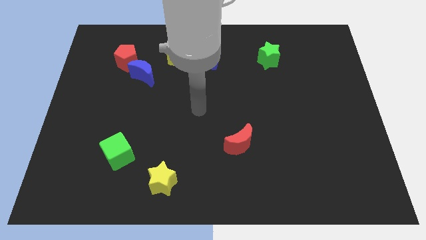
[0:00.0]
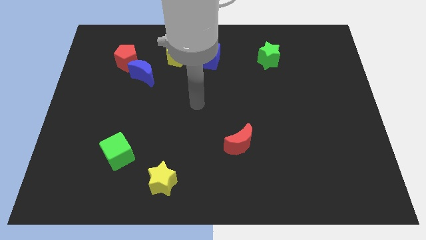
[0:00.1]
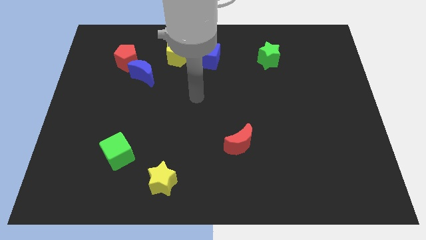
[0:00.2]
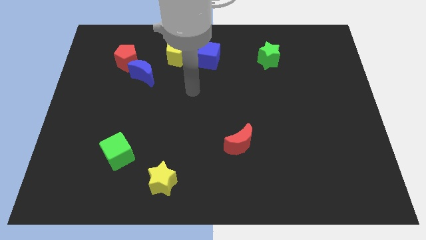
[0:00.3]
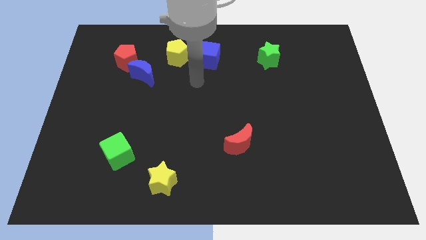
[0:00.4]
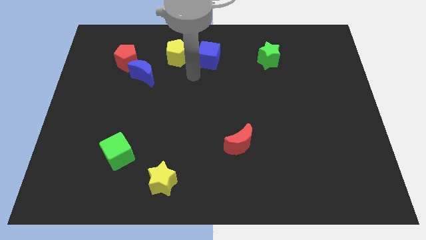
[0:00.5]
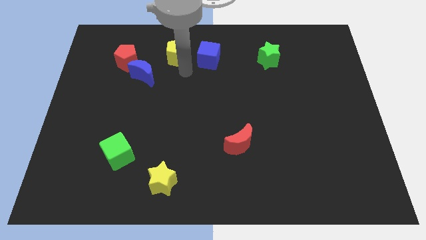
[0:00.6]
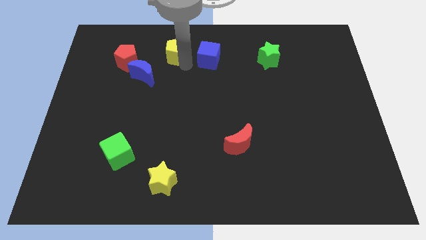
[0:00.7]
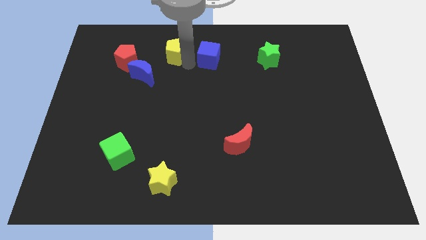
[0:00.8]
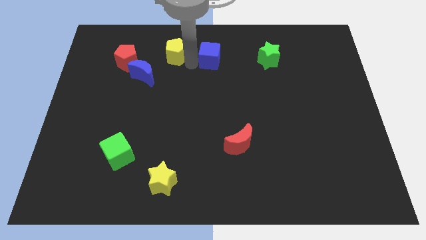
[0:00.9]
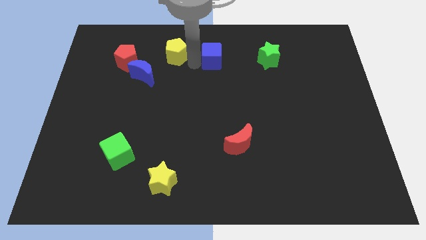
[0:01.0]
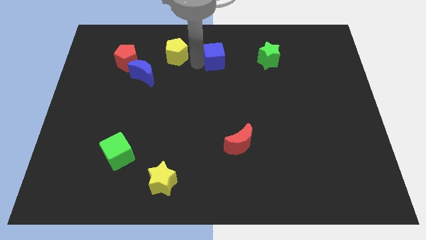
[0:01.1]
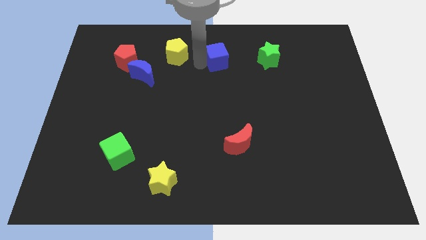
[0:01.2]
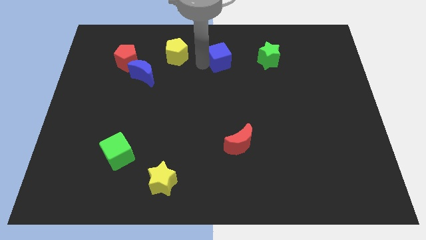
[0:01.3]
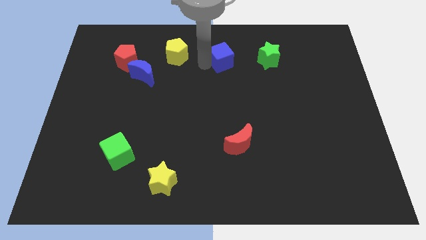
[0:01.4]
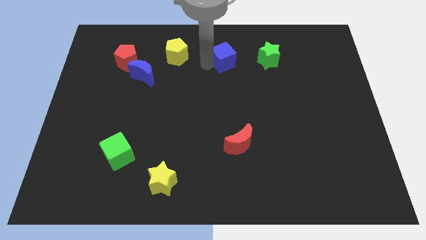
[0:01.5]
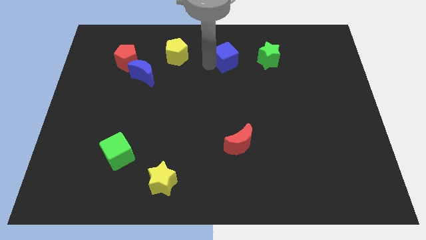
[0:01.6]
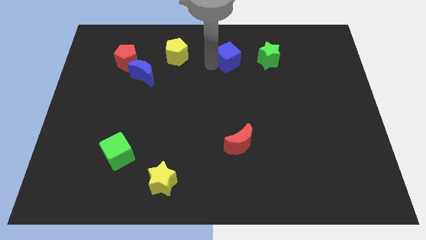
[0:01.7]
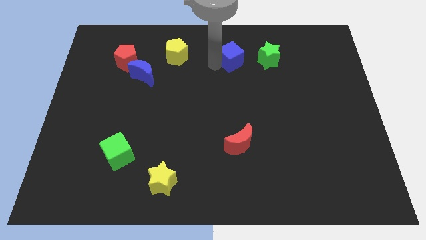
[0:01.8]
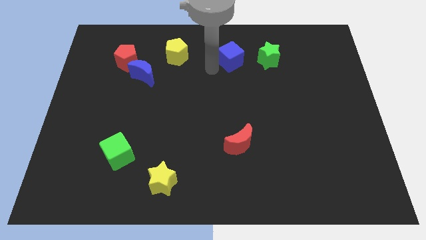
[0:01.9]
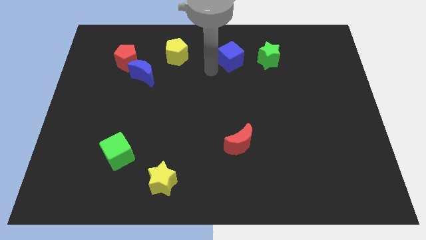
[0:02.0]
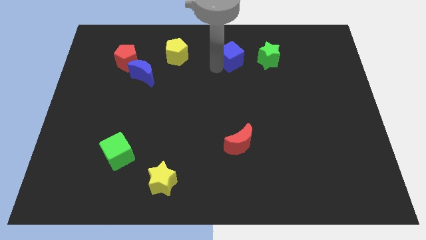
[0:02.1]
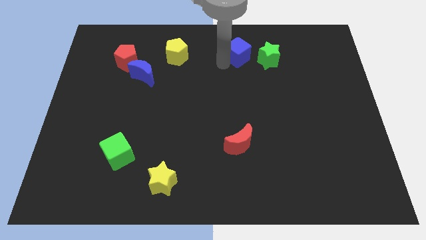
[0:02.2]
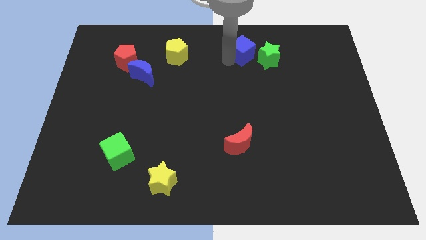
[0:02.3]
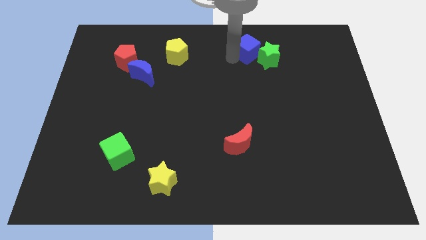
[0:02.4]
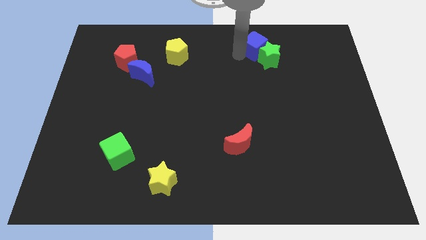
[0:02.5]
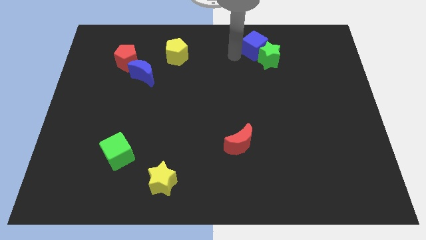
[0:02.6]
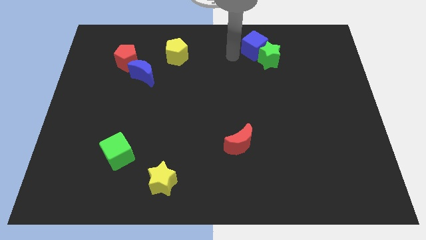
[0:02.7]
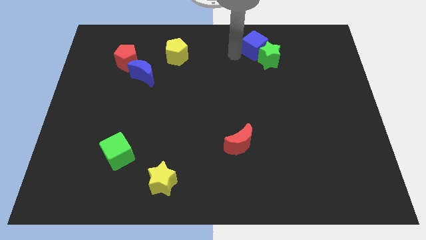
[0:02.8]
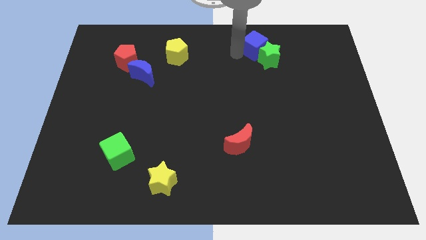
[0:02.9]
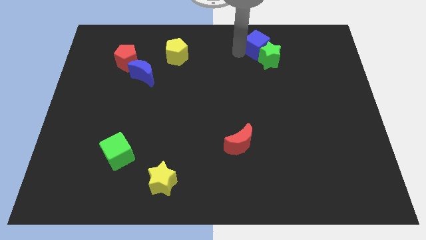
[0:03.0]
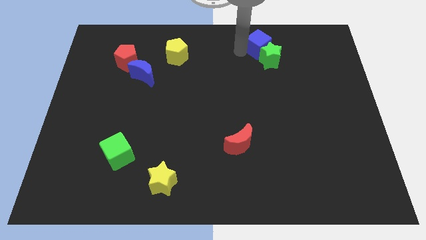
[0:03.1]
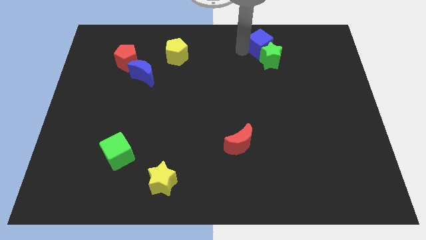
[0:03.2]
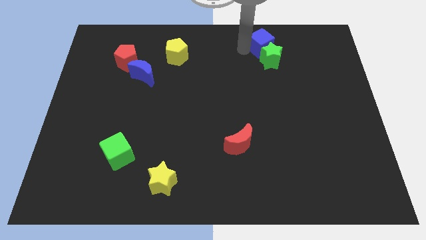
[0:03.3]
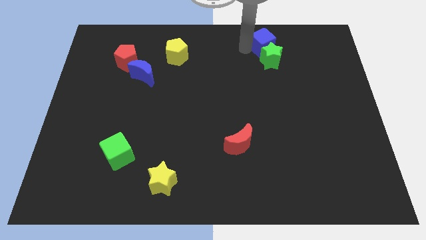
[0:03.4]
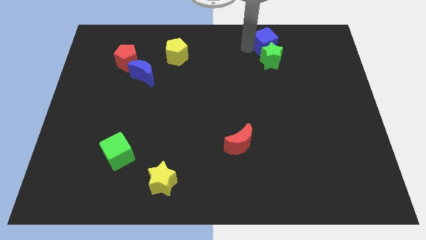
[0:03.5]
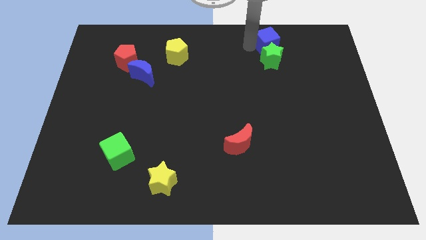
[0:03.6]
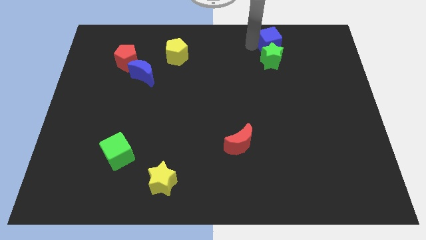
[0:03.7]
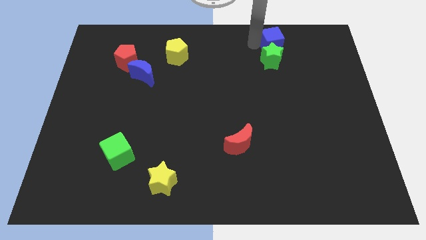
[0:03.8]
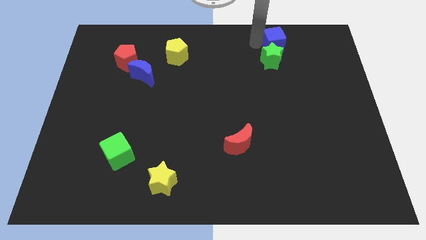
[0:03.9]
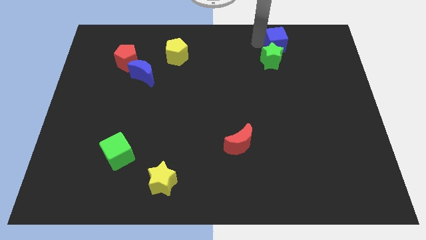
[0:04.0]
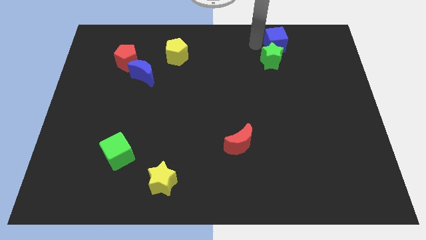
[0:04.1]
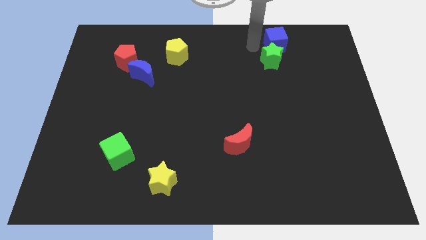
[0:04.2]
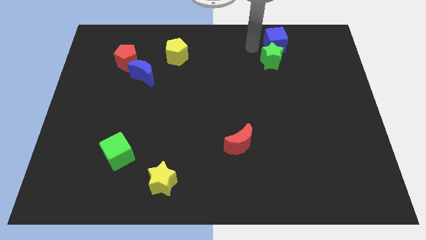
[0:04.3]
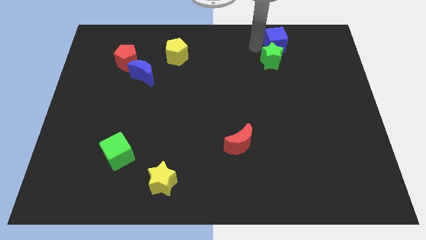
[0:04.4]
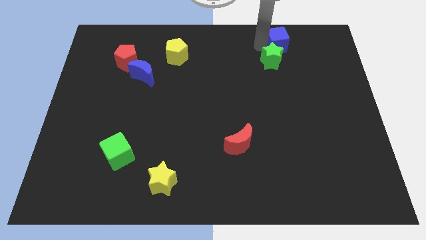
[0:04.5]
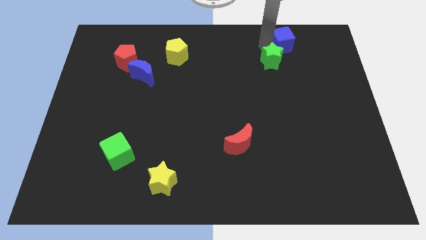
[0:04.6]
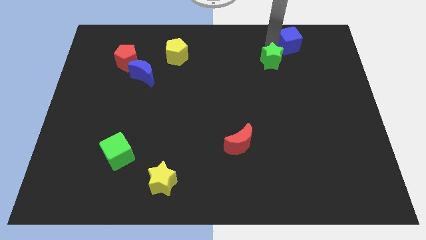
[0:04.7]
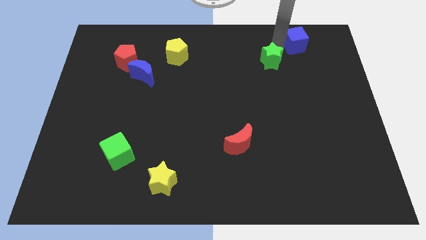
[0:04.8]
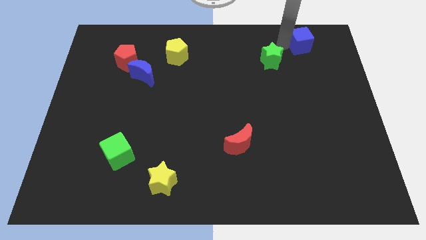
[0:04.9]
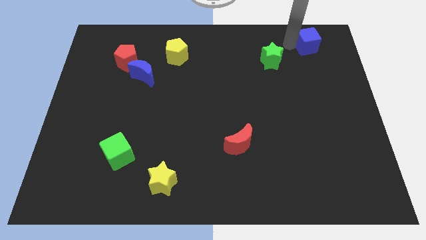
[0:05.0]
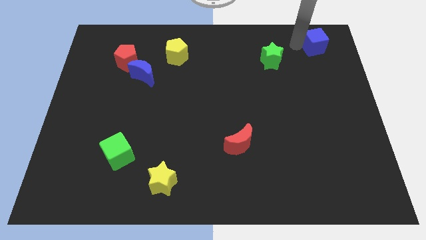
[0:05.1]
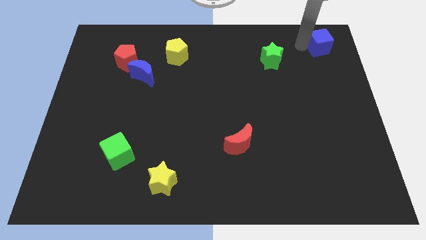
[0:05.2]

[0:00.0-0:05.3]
put the blue cube to the top right

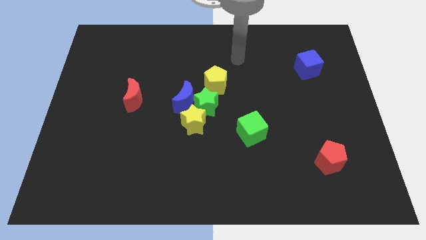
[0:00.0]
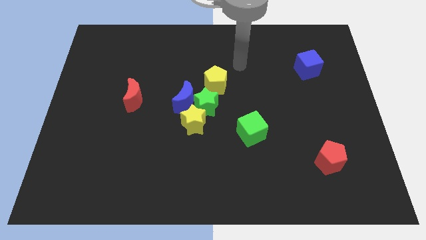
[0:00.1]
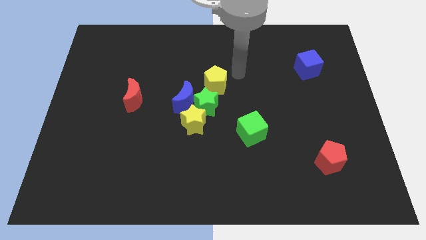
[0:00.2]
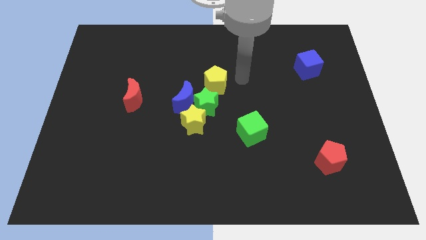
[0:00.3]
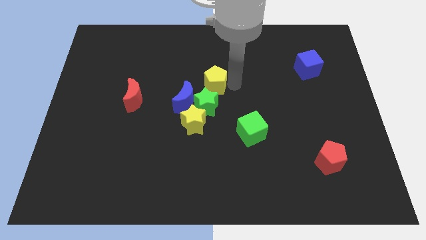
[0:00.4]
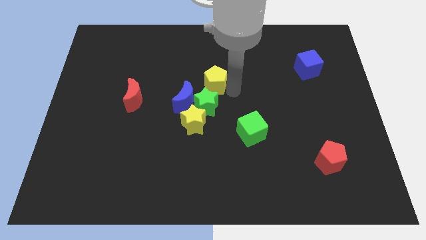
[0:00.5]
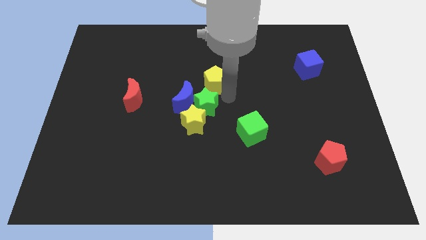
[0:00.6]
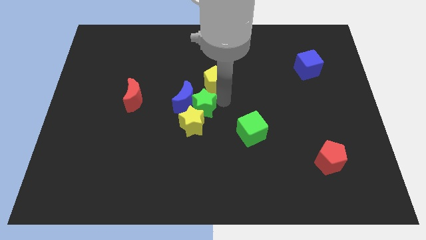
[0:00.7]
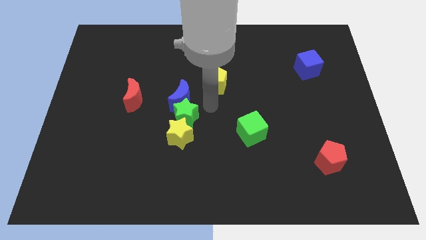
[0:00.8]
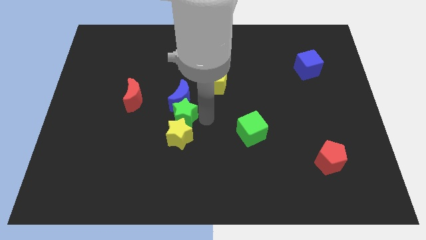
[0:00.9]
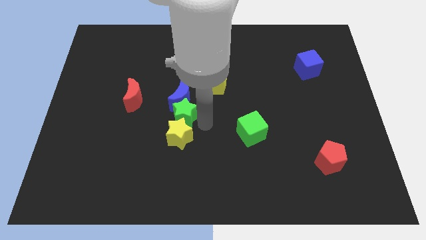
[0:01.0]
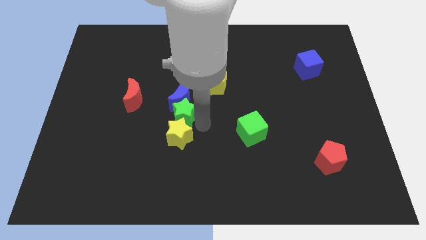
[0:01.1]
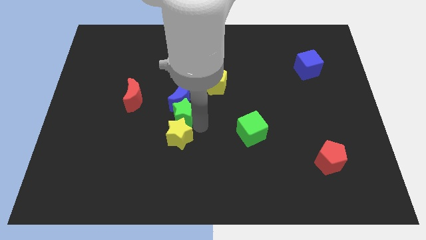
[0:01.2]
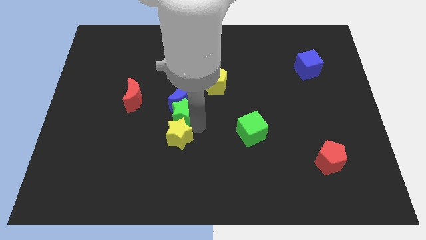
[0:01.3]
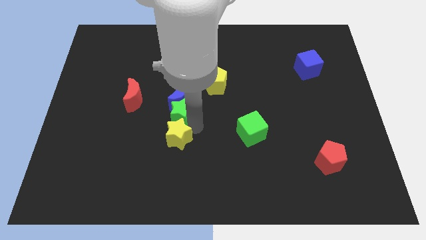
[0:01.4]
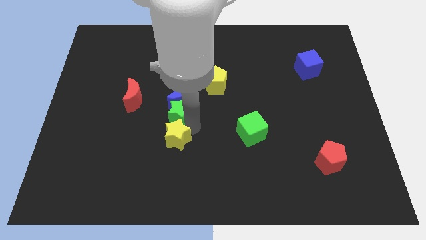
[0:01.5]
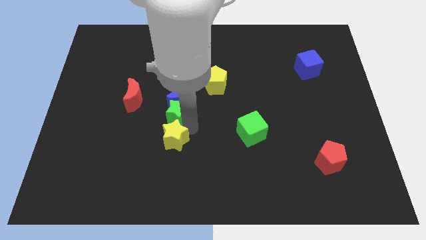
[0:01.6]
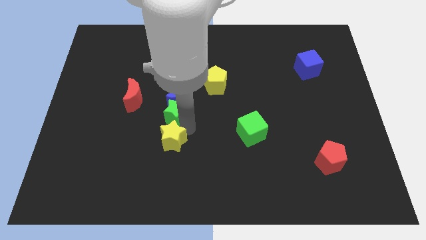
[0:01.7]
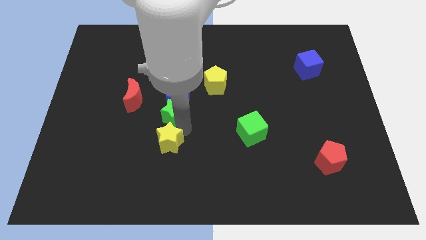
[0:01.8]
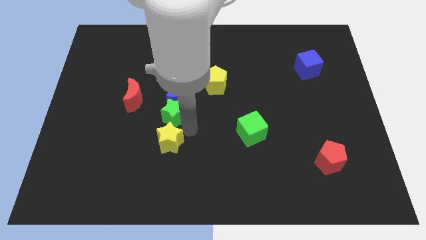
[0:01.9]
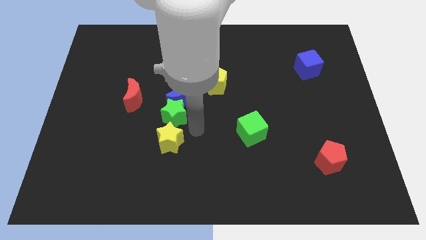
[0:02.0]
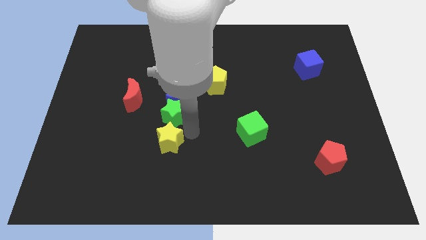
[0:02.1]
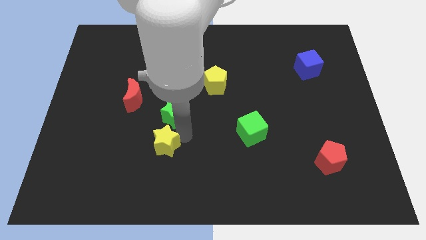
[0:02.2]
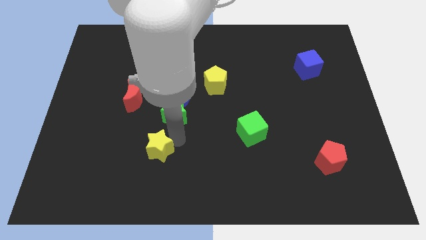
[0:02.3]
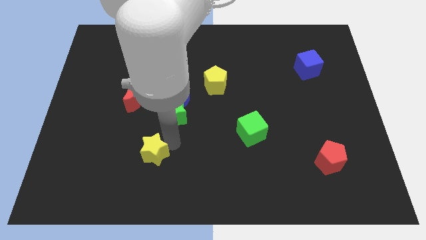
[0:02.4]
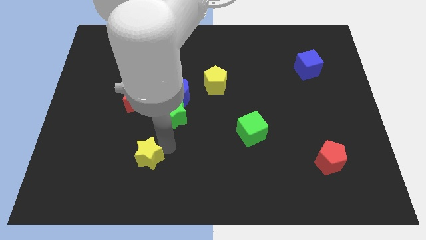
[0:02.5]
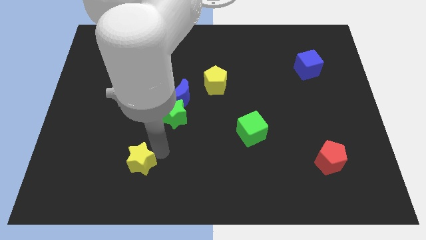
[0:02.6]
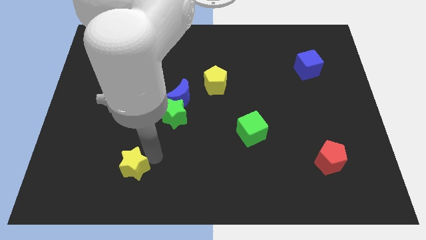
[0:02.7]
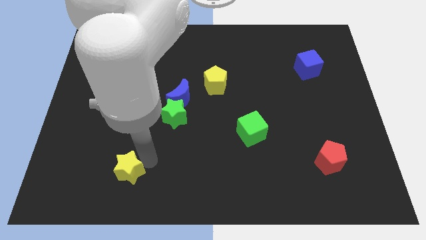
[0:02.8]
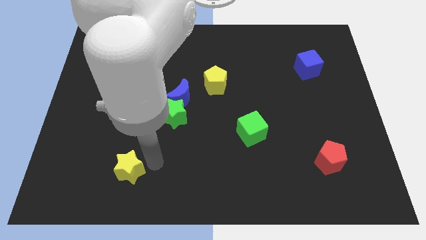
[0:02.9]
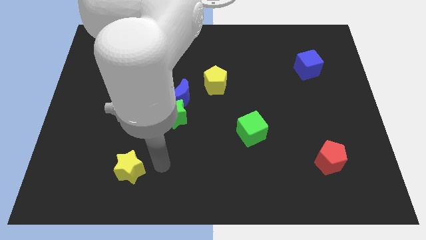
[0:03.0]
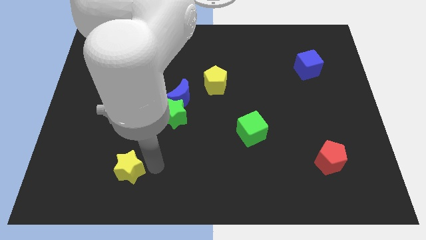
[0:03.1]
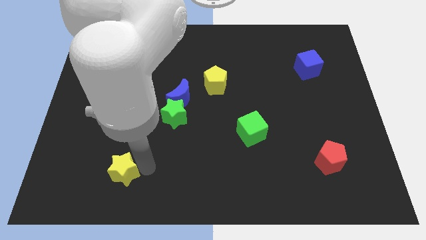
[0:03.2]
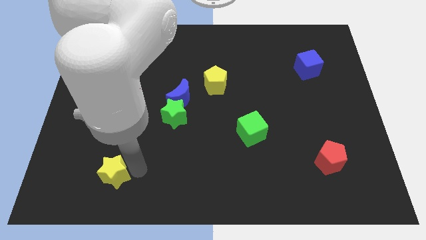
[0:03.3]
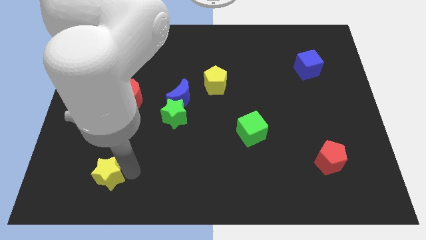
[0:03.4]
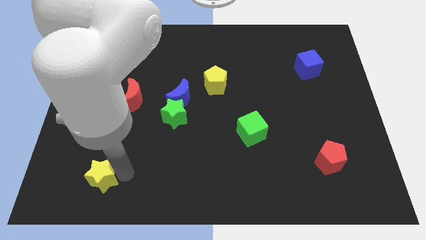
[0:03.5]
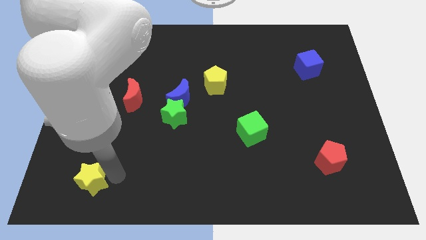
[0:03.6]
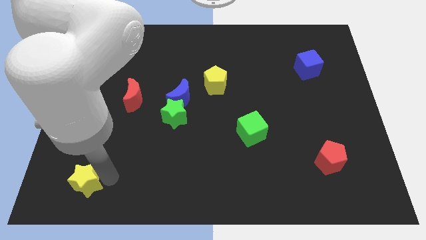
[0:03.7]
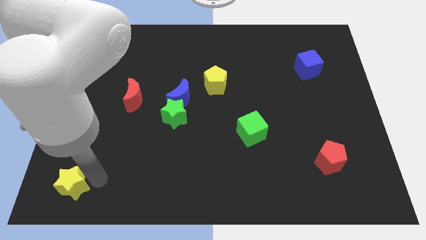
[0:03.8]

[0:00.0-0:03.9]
slide the yellow star to the bottom left corner
